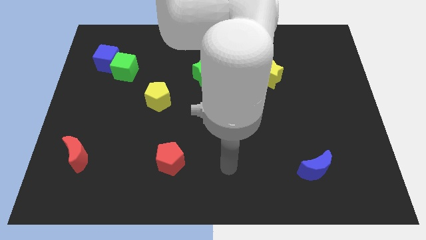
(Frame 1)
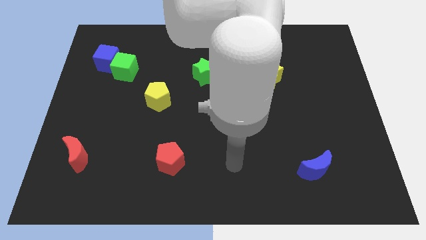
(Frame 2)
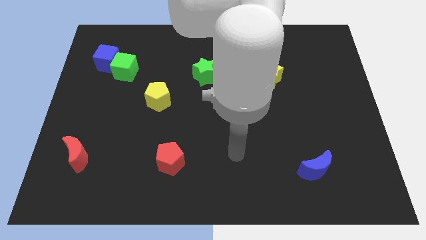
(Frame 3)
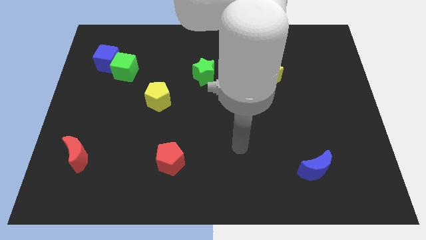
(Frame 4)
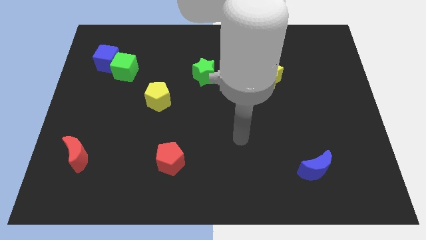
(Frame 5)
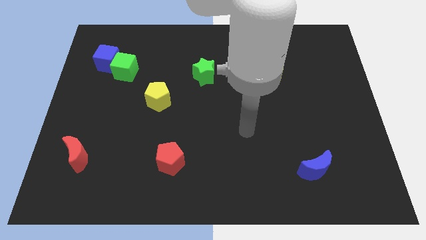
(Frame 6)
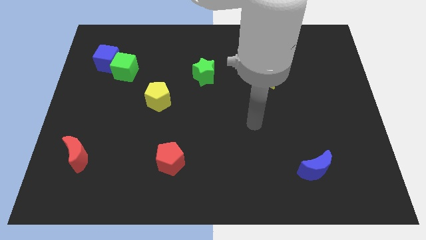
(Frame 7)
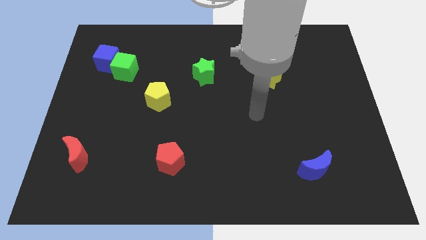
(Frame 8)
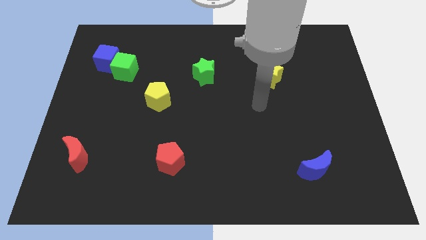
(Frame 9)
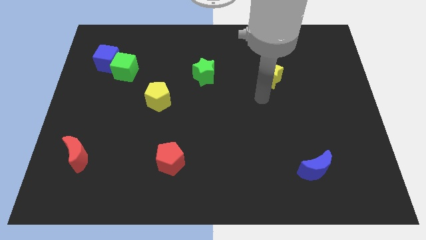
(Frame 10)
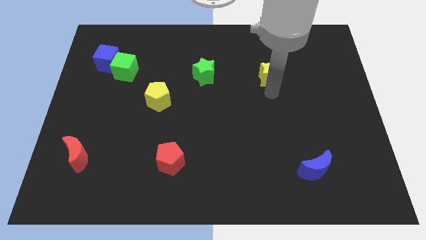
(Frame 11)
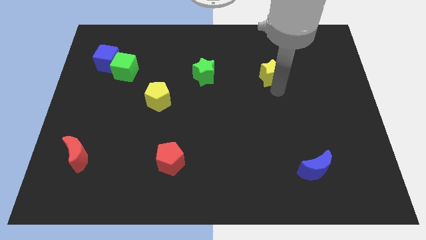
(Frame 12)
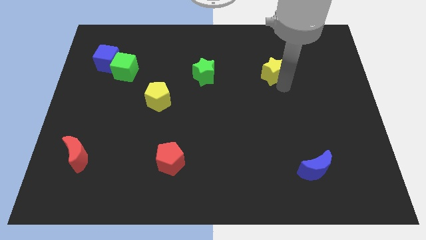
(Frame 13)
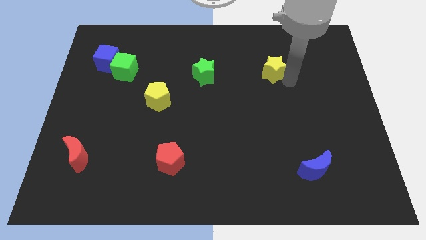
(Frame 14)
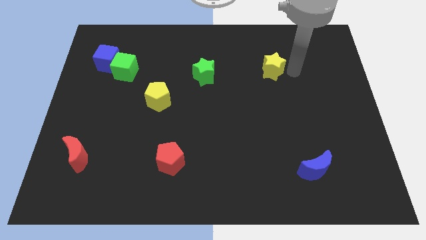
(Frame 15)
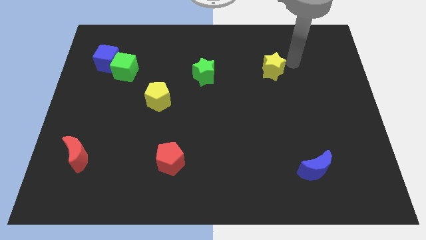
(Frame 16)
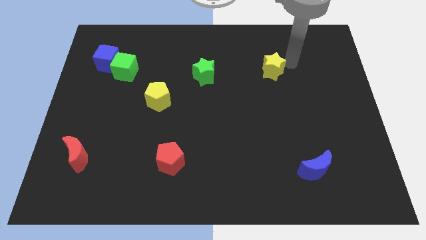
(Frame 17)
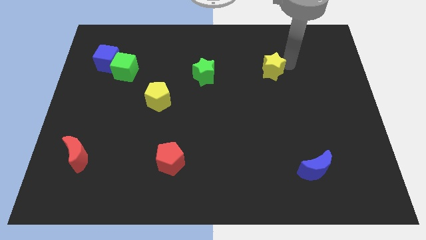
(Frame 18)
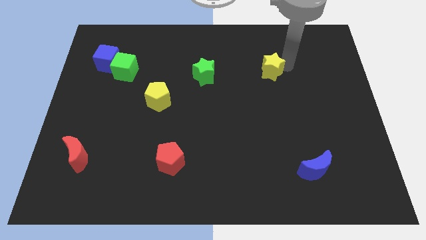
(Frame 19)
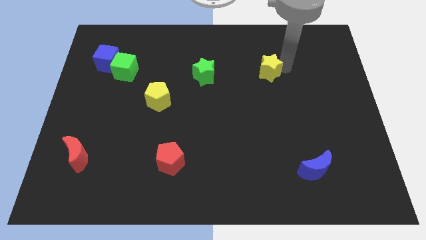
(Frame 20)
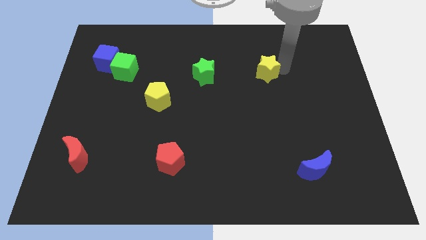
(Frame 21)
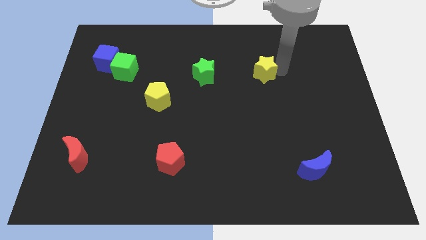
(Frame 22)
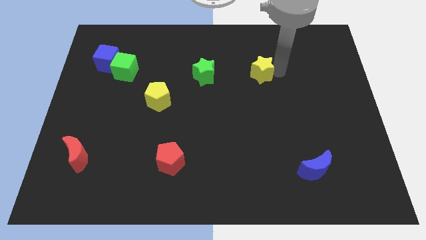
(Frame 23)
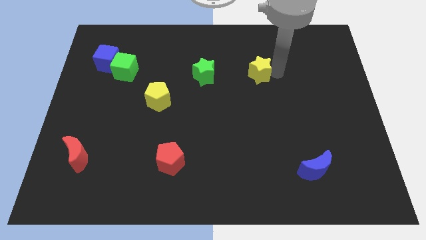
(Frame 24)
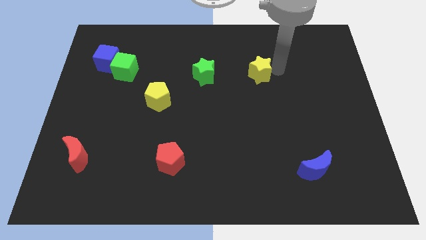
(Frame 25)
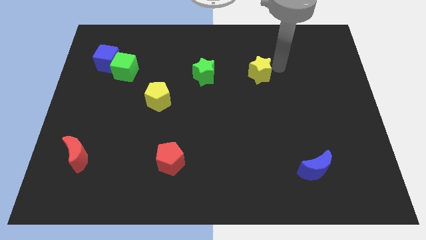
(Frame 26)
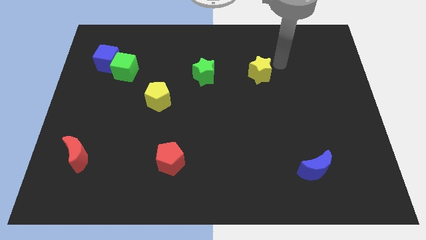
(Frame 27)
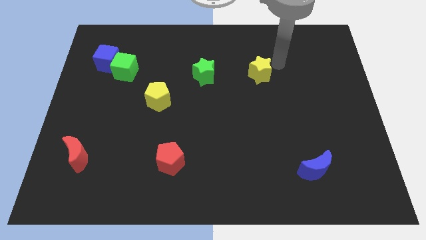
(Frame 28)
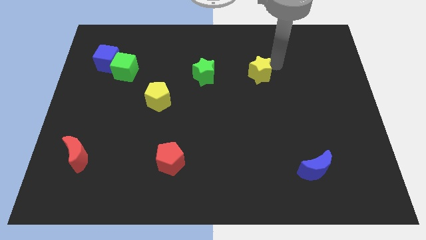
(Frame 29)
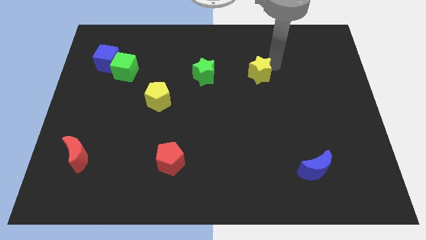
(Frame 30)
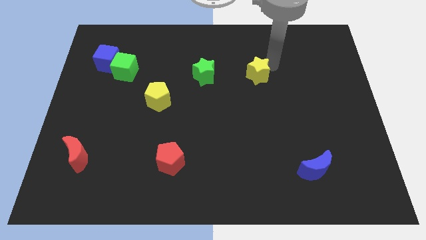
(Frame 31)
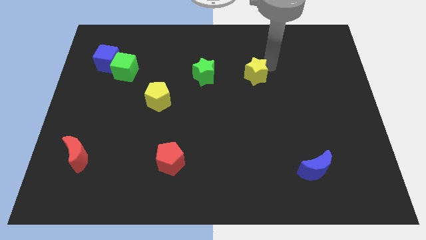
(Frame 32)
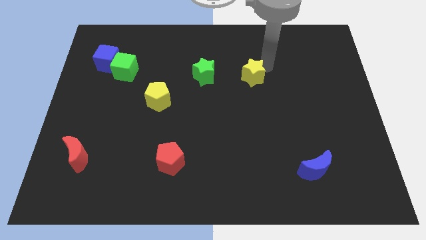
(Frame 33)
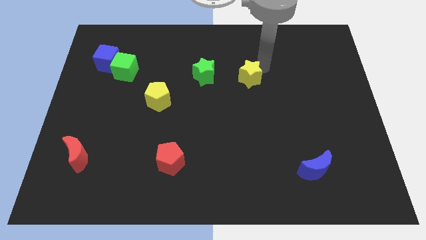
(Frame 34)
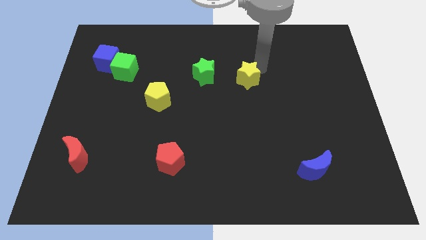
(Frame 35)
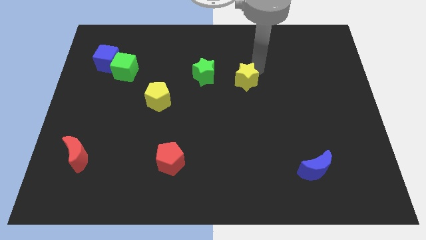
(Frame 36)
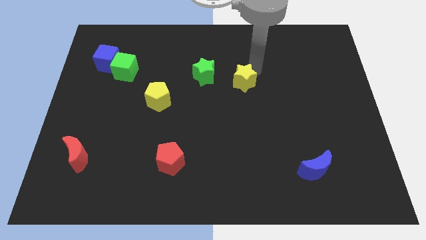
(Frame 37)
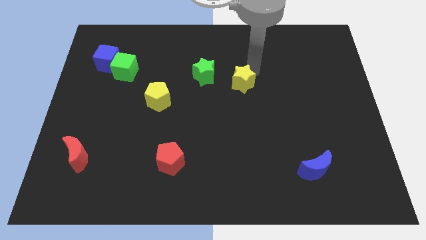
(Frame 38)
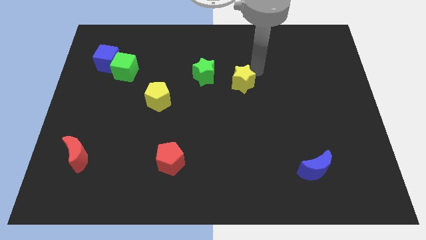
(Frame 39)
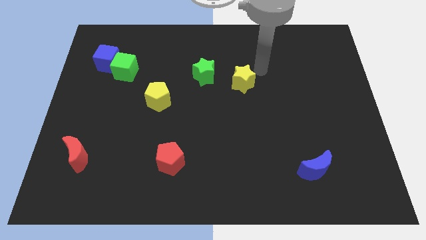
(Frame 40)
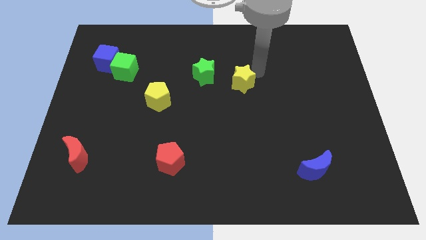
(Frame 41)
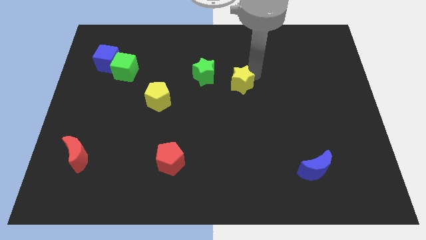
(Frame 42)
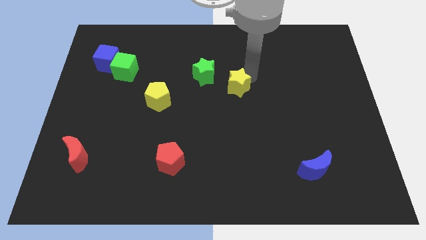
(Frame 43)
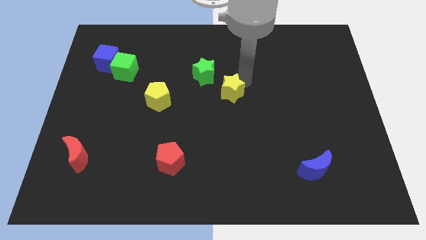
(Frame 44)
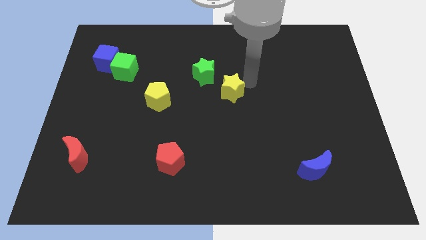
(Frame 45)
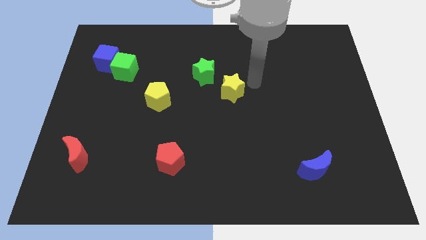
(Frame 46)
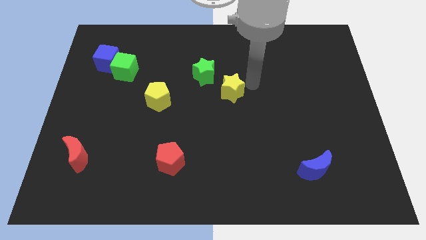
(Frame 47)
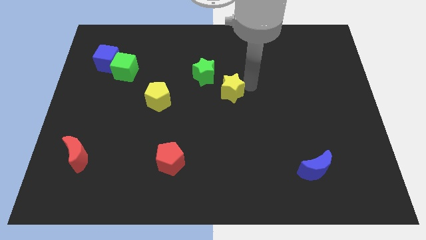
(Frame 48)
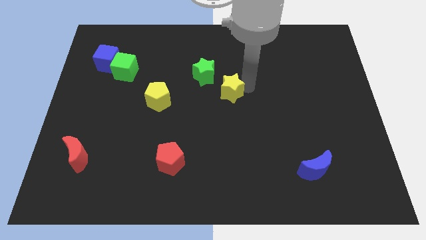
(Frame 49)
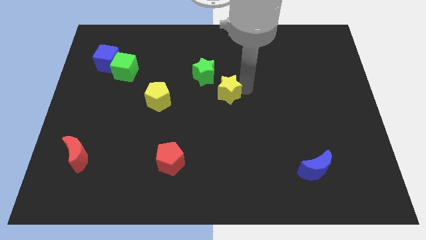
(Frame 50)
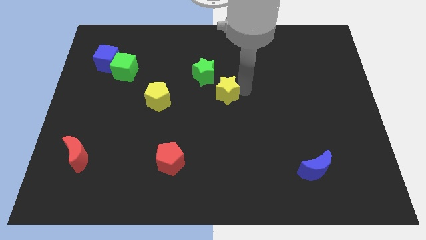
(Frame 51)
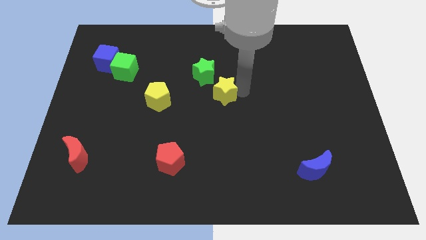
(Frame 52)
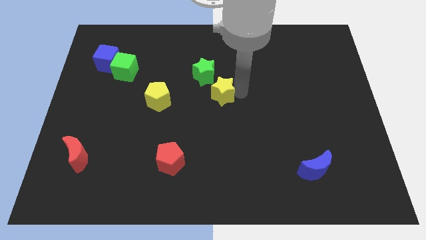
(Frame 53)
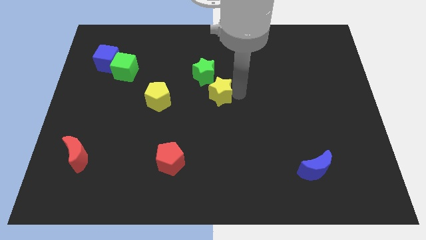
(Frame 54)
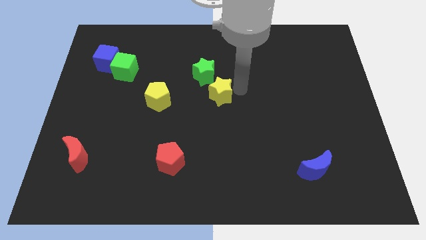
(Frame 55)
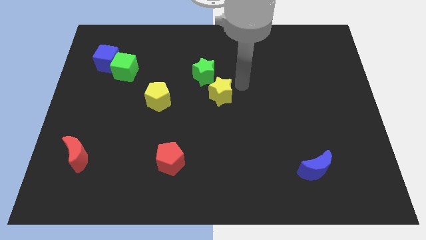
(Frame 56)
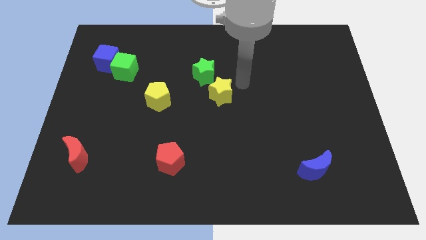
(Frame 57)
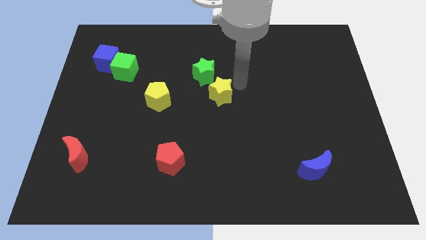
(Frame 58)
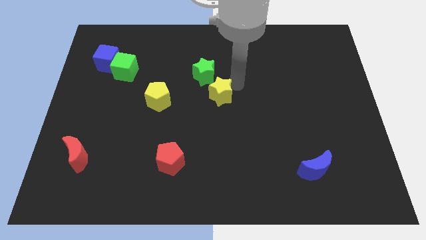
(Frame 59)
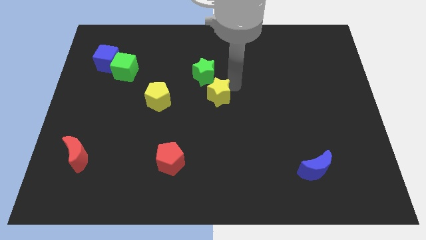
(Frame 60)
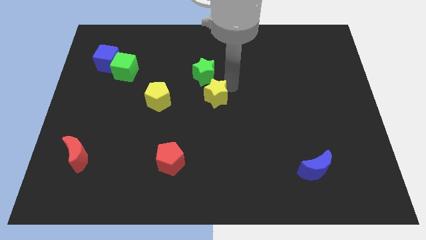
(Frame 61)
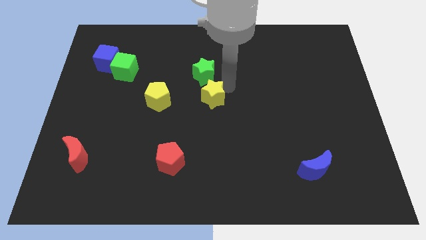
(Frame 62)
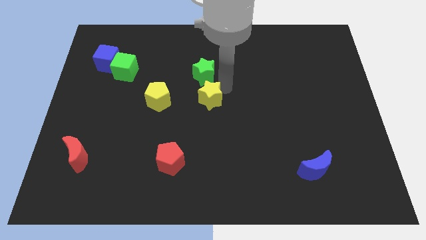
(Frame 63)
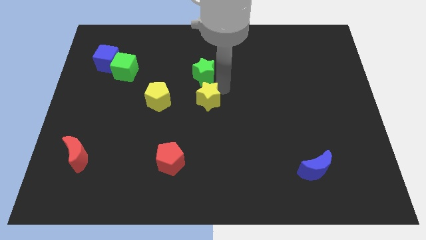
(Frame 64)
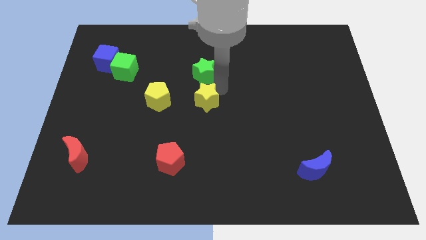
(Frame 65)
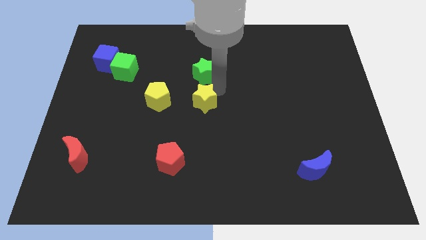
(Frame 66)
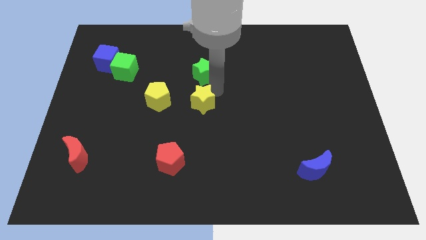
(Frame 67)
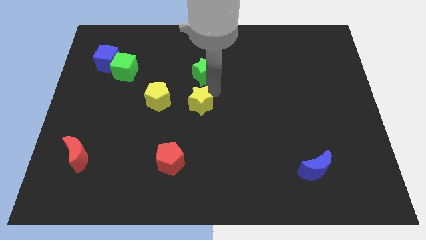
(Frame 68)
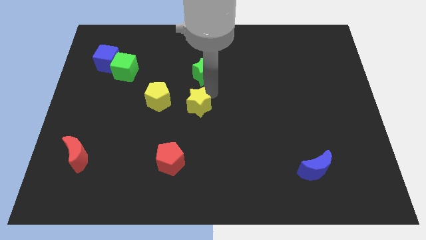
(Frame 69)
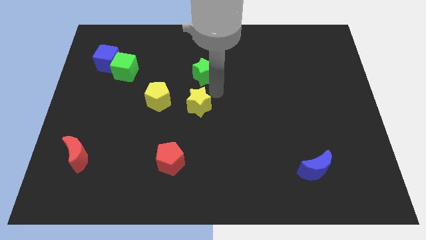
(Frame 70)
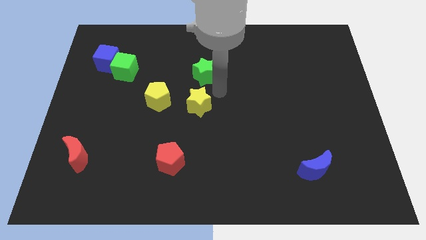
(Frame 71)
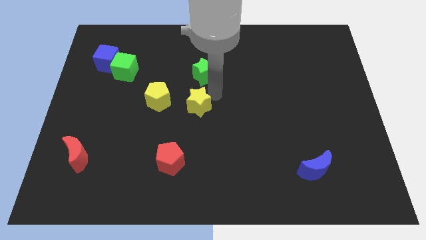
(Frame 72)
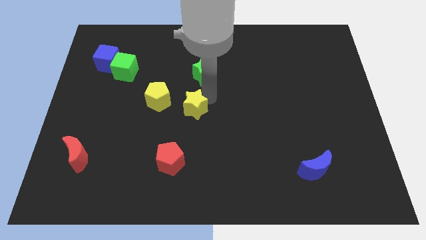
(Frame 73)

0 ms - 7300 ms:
put the yellow star diagonally down and to the right of the yellow pentagon

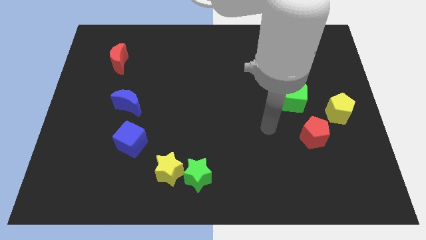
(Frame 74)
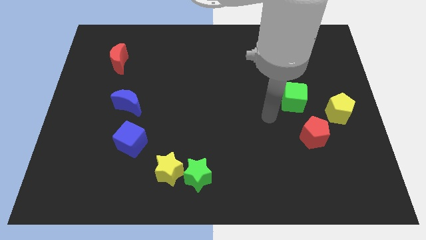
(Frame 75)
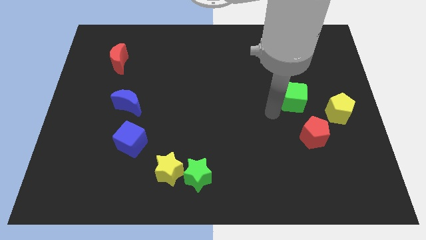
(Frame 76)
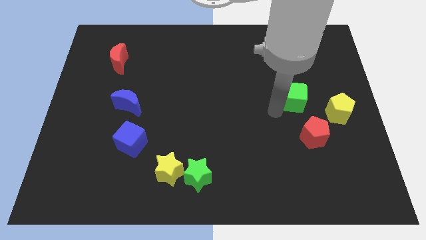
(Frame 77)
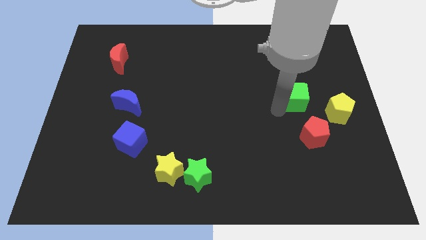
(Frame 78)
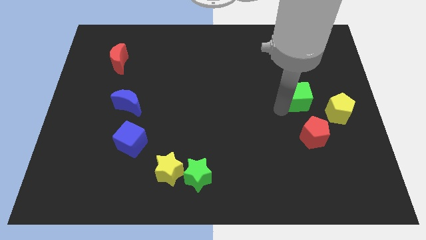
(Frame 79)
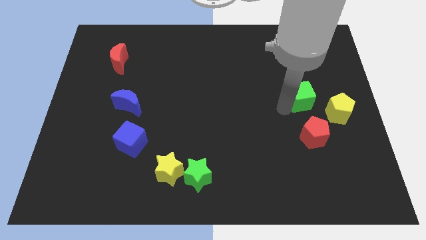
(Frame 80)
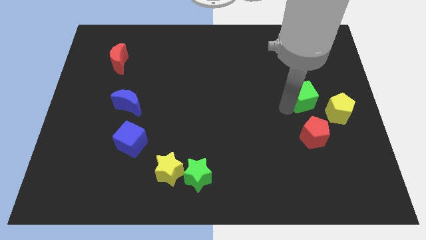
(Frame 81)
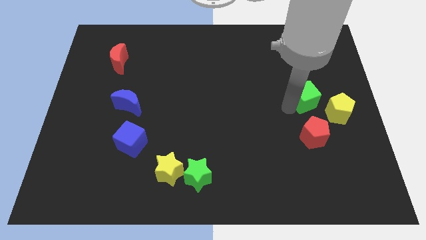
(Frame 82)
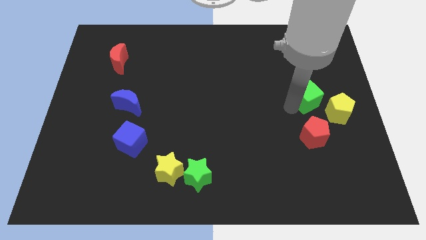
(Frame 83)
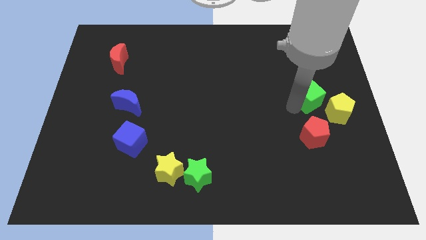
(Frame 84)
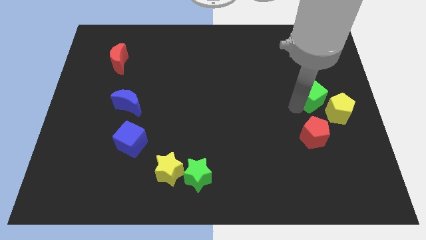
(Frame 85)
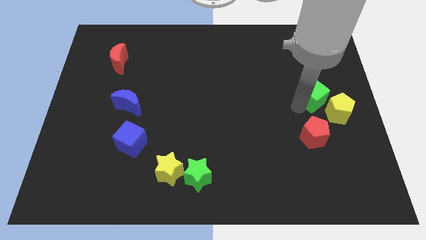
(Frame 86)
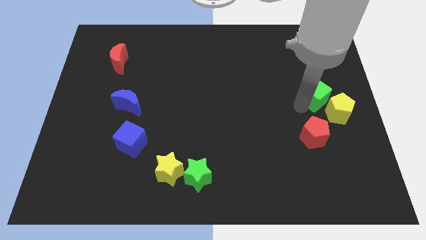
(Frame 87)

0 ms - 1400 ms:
push the green cube to the top side of the yellow pentagon
